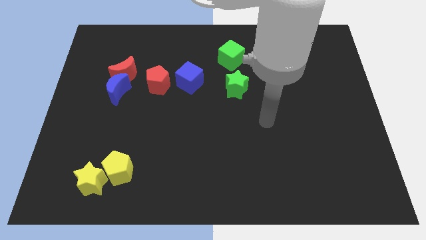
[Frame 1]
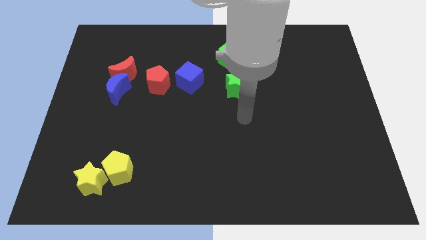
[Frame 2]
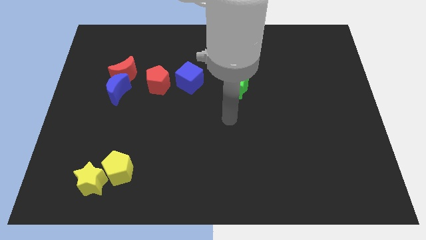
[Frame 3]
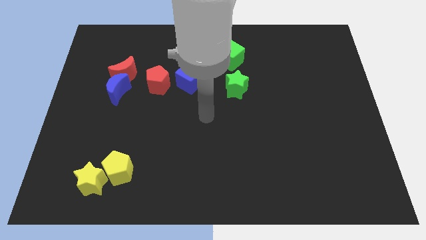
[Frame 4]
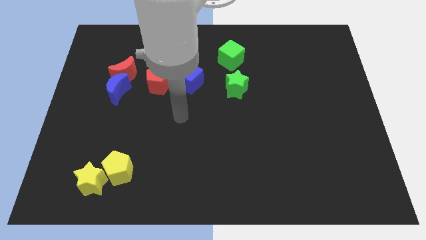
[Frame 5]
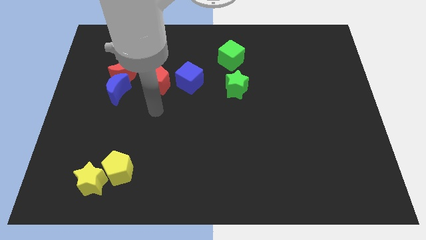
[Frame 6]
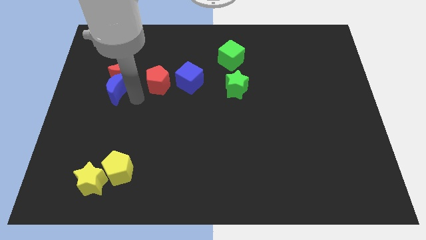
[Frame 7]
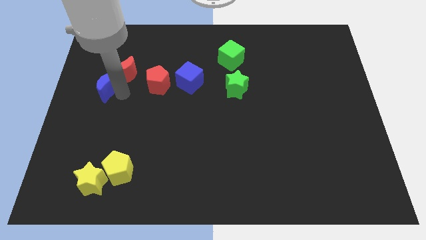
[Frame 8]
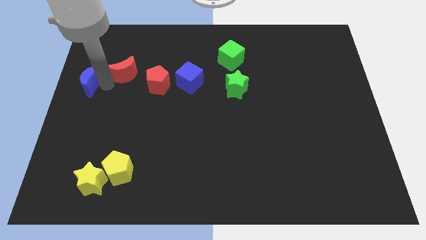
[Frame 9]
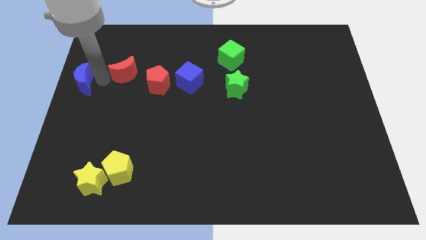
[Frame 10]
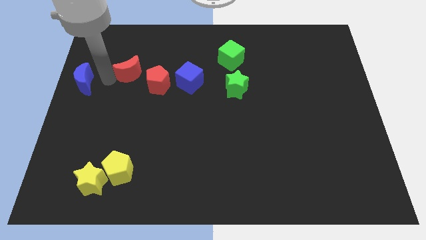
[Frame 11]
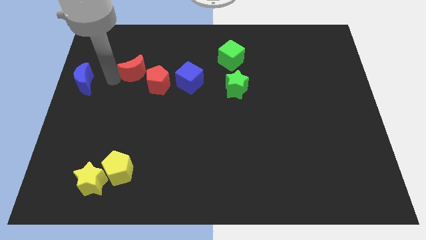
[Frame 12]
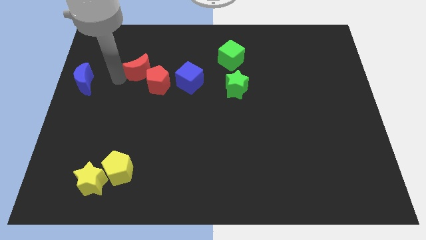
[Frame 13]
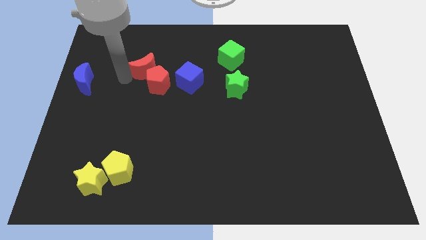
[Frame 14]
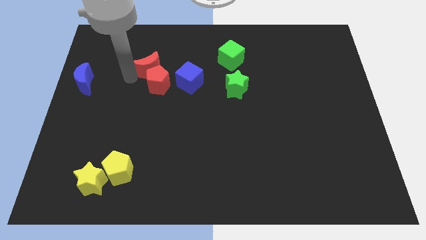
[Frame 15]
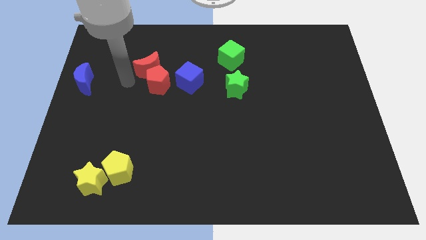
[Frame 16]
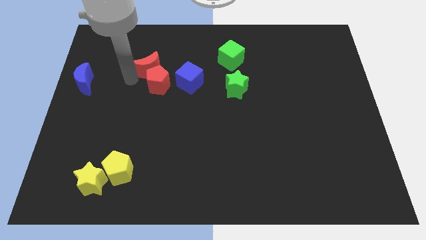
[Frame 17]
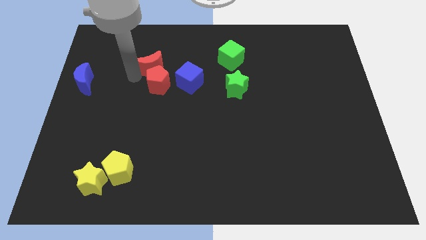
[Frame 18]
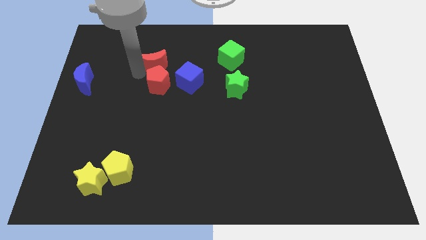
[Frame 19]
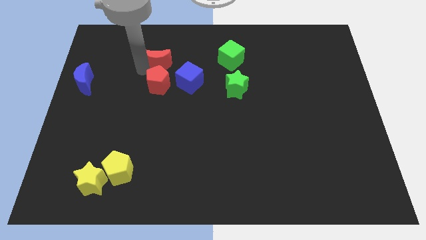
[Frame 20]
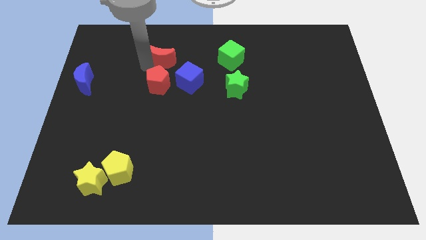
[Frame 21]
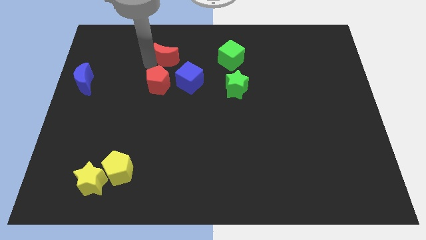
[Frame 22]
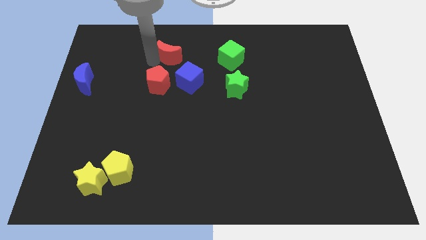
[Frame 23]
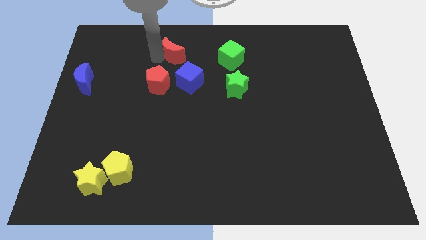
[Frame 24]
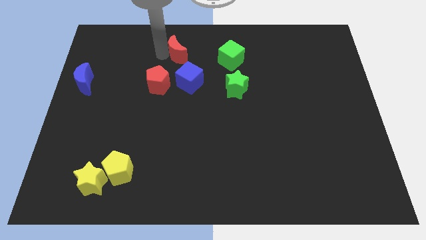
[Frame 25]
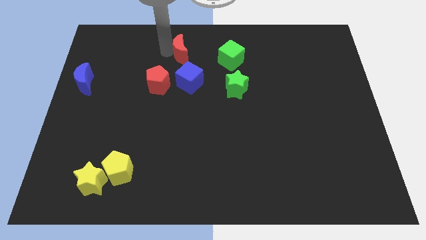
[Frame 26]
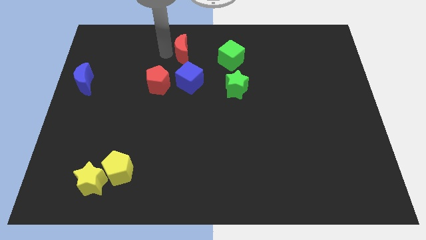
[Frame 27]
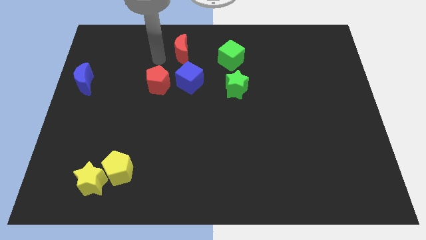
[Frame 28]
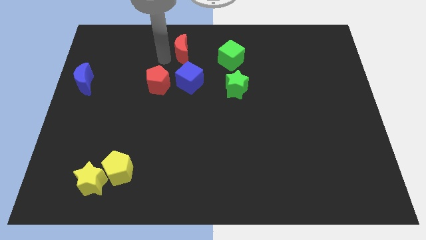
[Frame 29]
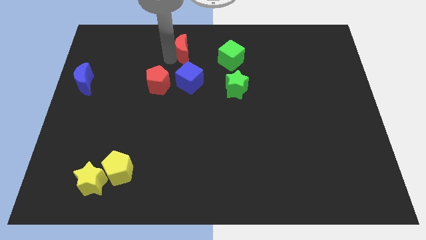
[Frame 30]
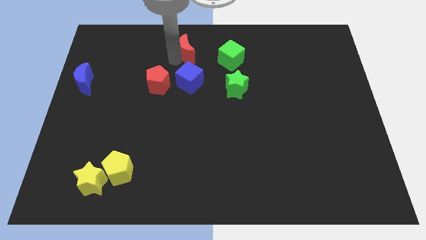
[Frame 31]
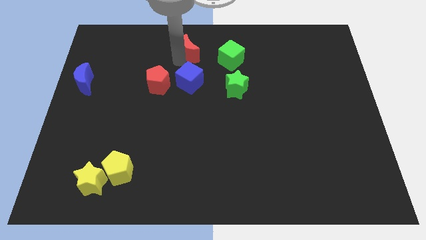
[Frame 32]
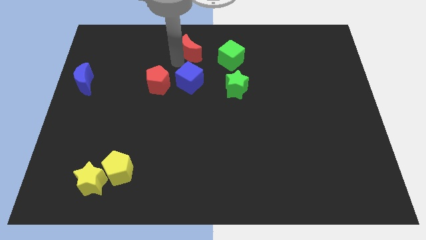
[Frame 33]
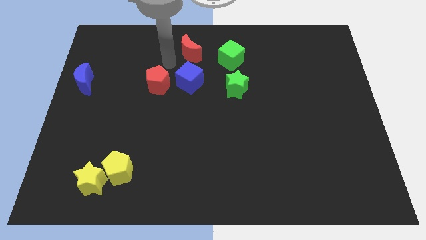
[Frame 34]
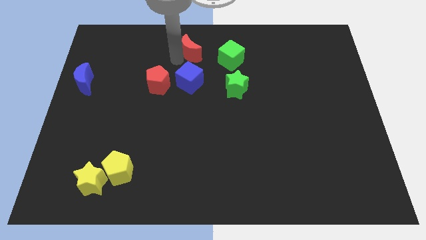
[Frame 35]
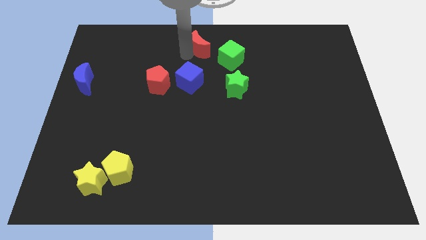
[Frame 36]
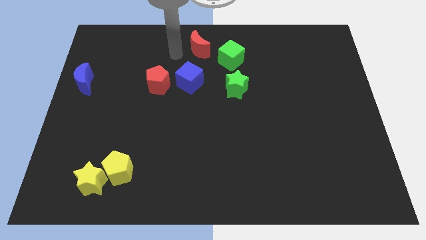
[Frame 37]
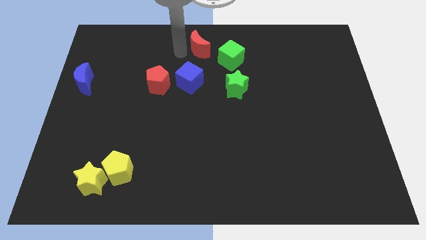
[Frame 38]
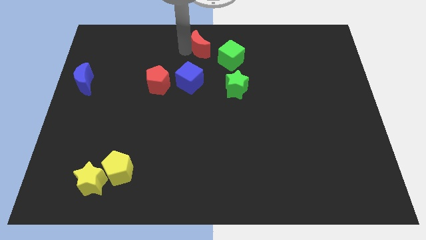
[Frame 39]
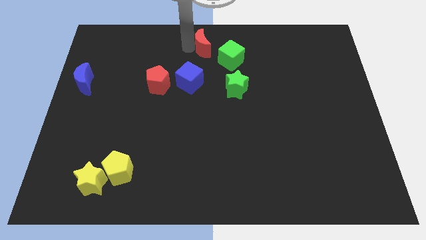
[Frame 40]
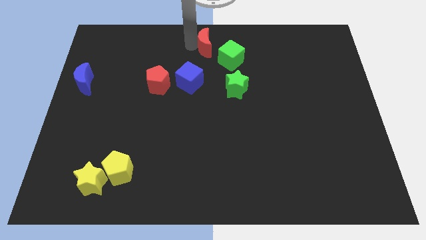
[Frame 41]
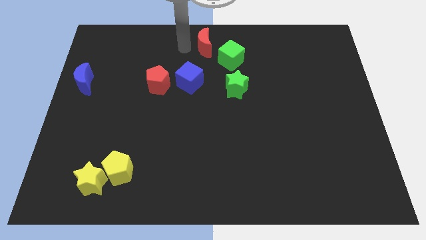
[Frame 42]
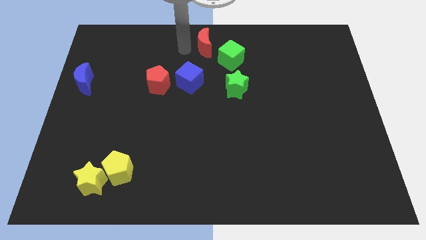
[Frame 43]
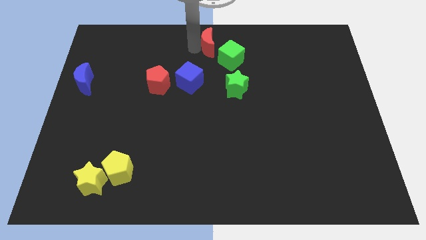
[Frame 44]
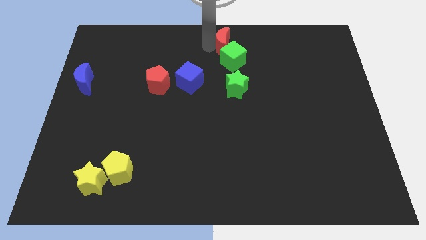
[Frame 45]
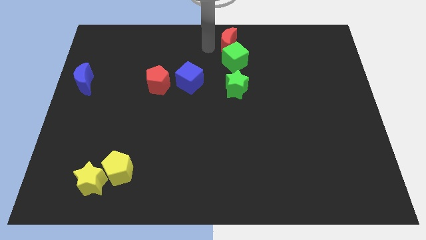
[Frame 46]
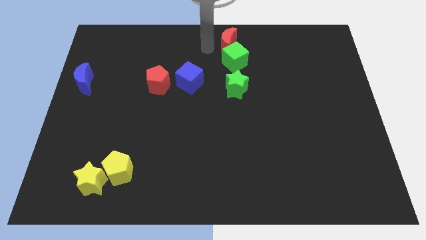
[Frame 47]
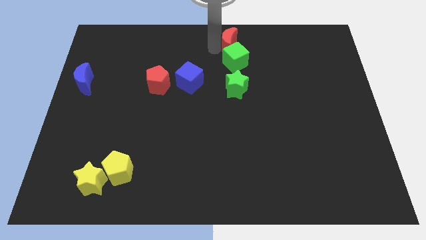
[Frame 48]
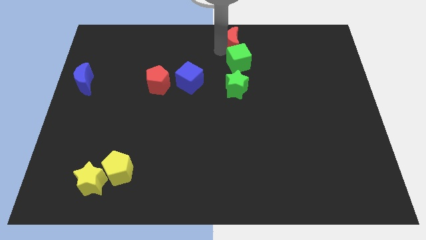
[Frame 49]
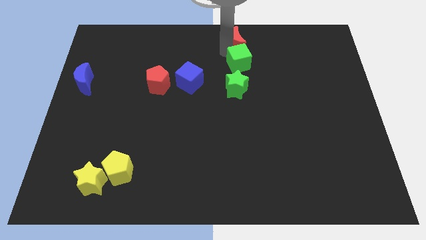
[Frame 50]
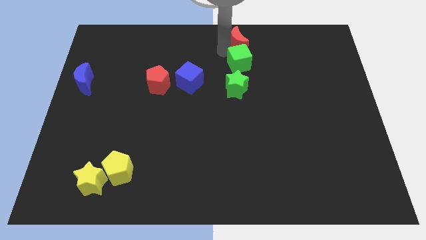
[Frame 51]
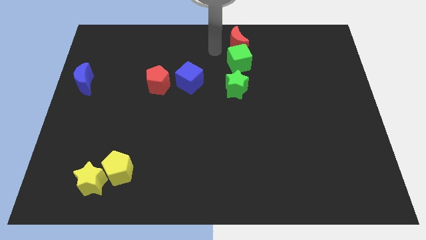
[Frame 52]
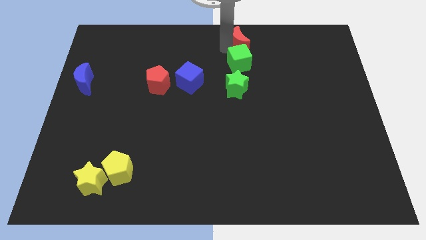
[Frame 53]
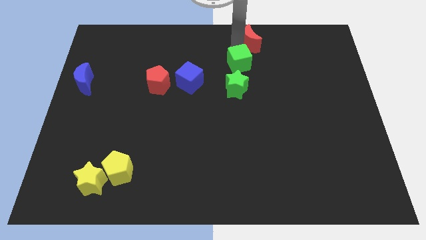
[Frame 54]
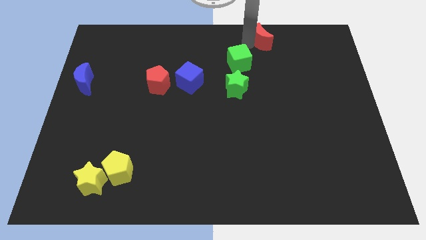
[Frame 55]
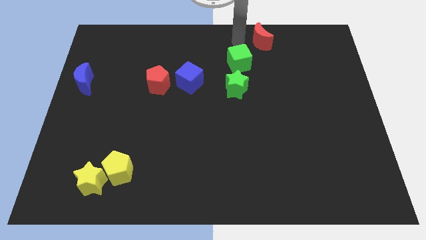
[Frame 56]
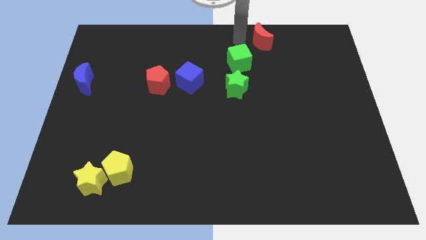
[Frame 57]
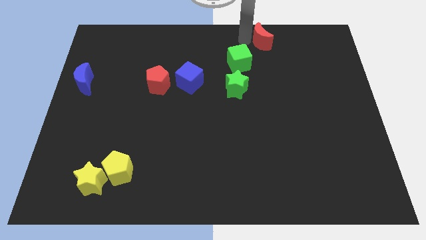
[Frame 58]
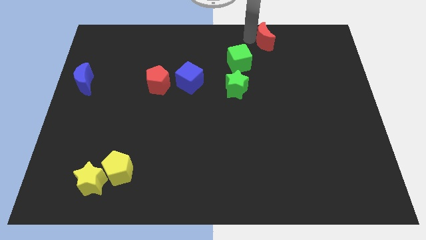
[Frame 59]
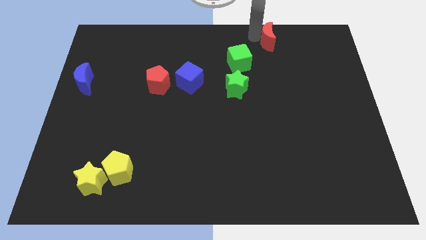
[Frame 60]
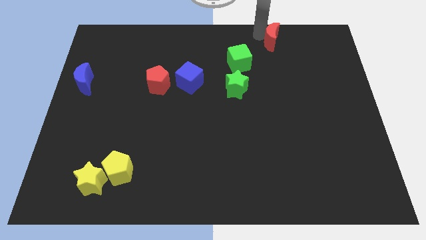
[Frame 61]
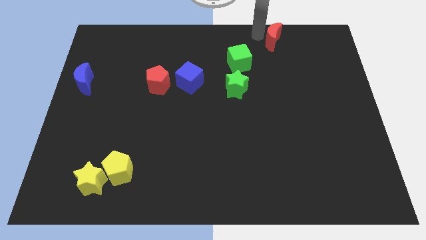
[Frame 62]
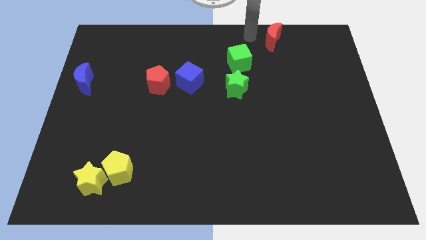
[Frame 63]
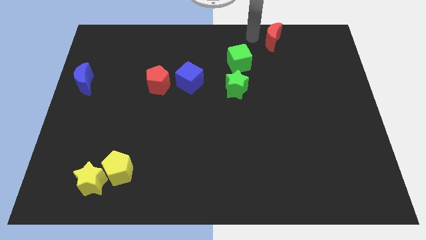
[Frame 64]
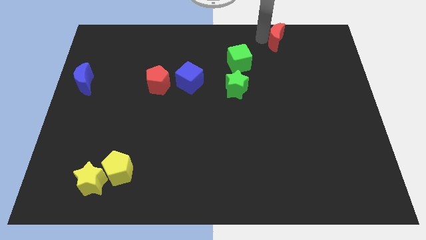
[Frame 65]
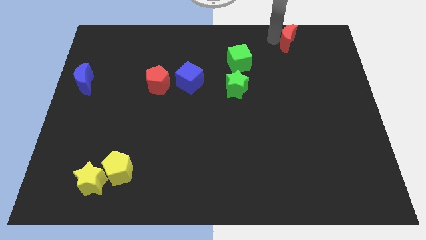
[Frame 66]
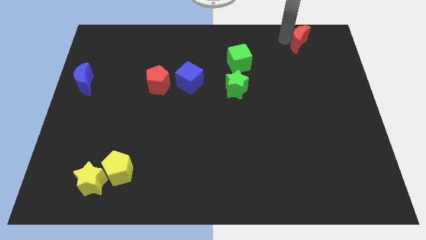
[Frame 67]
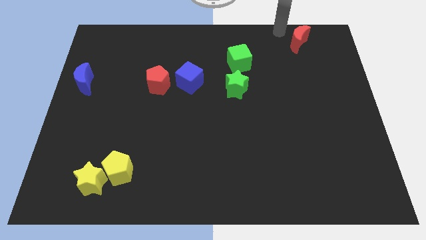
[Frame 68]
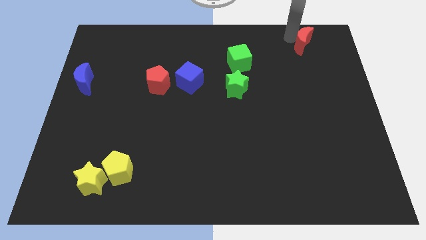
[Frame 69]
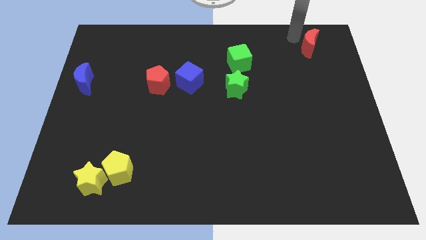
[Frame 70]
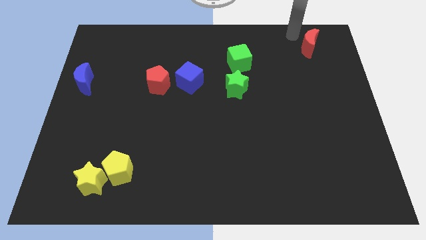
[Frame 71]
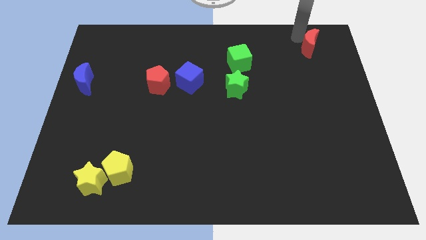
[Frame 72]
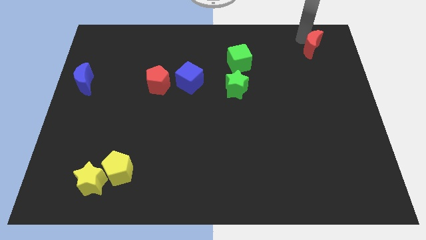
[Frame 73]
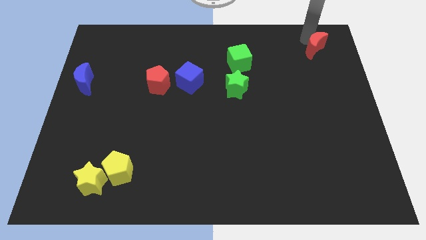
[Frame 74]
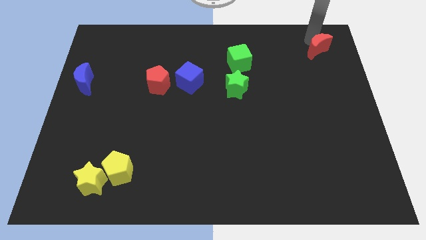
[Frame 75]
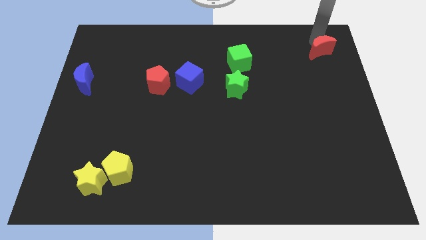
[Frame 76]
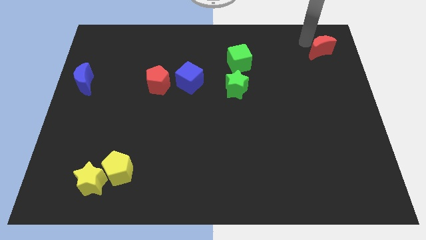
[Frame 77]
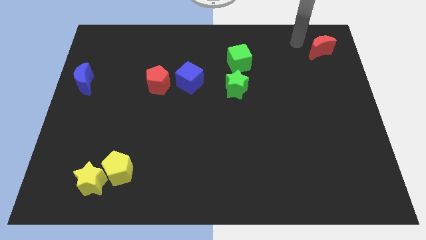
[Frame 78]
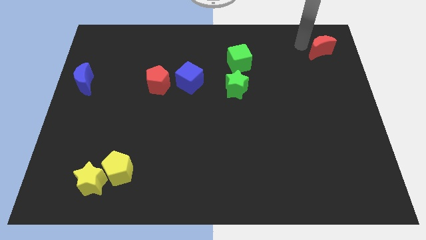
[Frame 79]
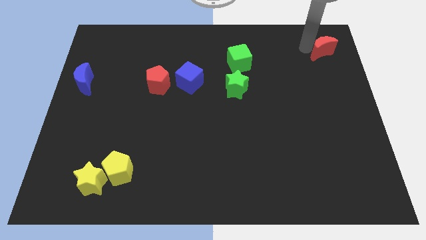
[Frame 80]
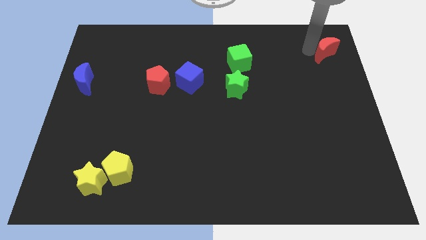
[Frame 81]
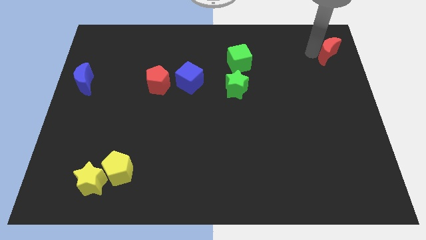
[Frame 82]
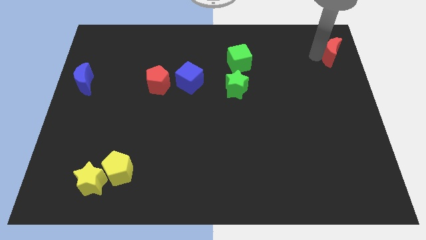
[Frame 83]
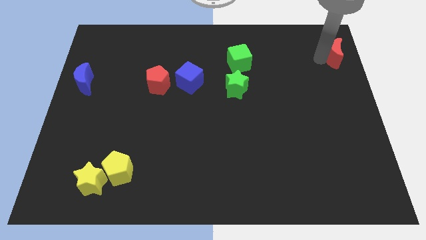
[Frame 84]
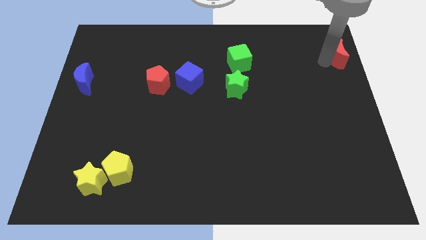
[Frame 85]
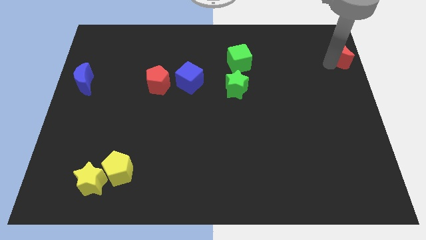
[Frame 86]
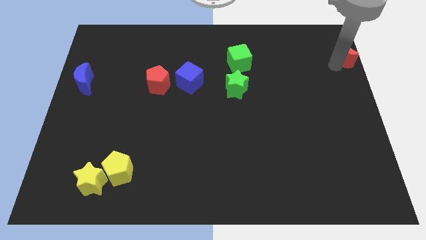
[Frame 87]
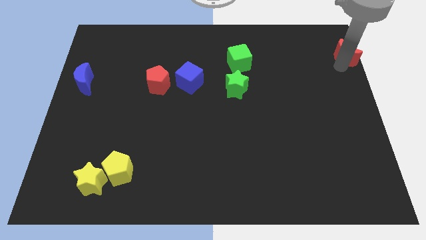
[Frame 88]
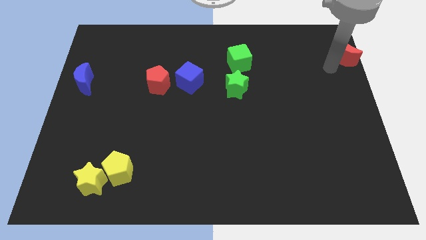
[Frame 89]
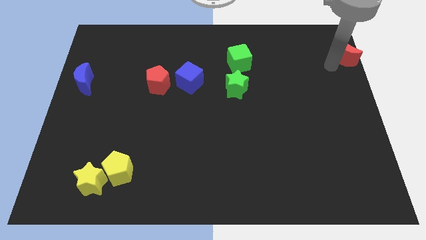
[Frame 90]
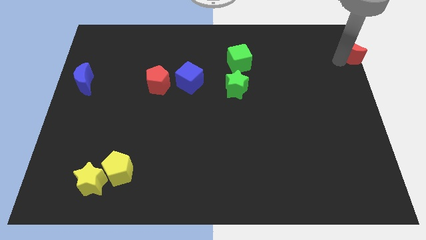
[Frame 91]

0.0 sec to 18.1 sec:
push the red moon to the upper right corner
